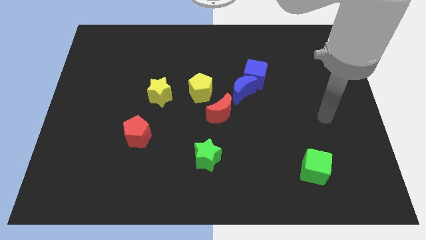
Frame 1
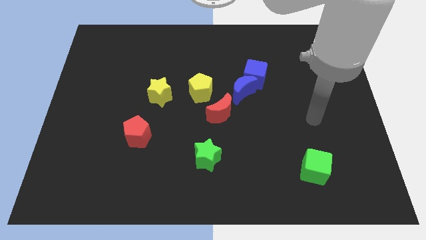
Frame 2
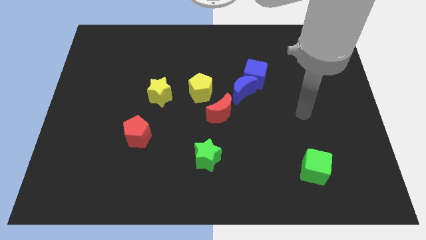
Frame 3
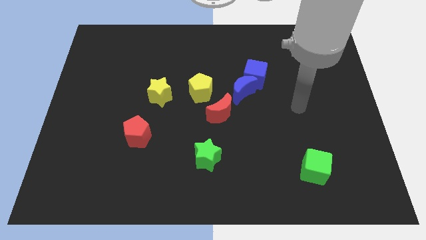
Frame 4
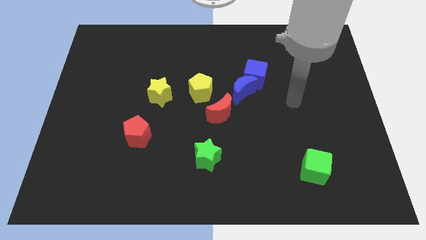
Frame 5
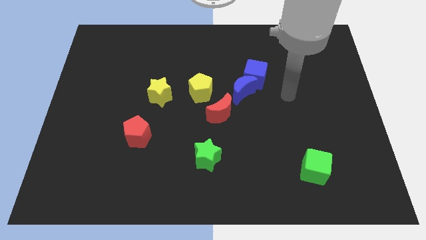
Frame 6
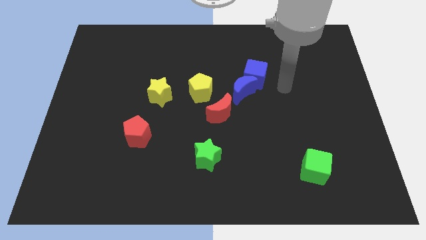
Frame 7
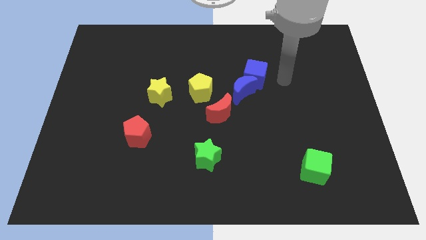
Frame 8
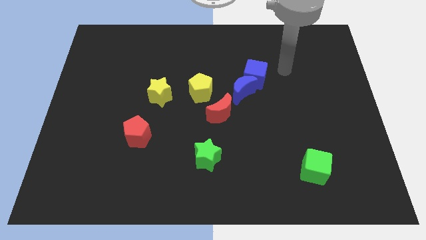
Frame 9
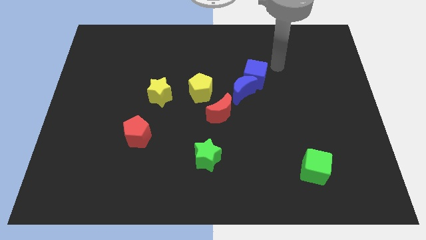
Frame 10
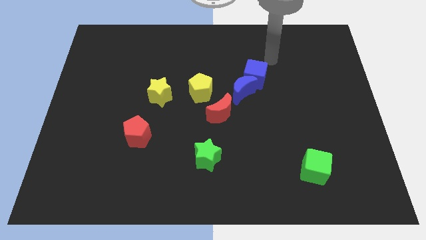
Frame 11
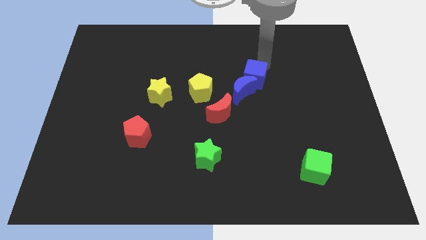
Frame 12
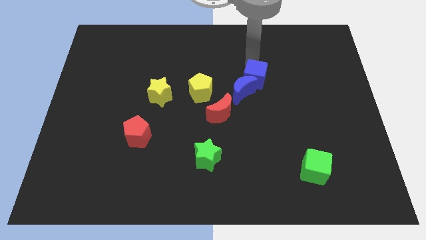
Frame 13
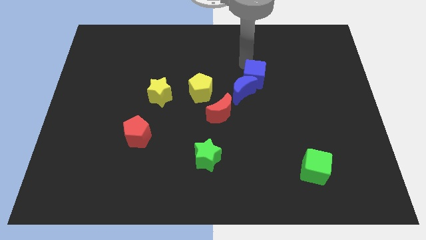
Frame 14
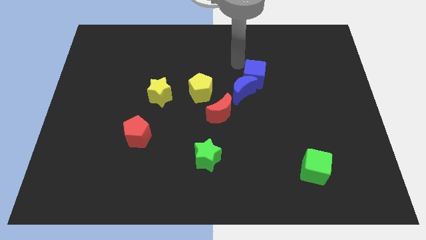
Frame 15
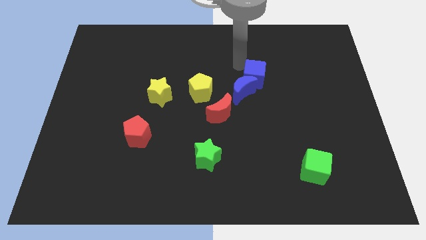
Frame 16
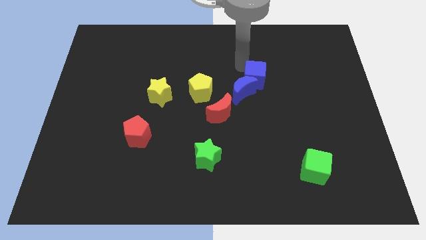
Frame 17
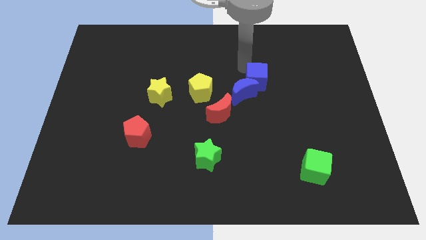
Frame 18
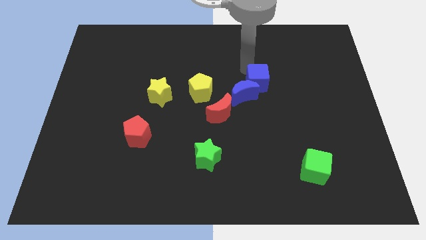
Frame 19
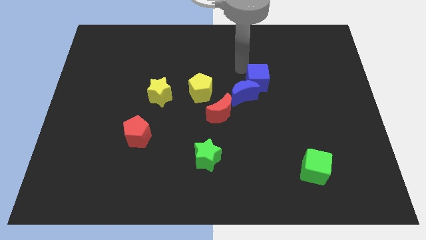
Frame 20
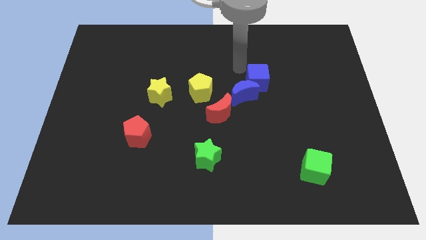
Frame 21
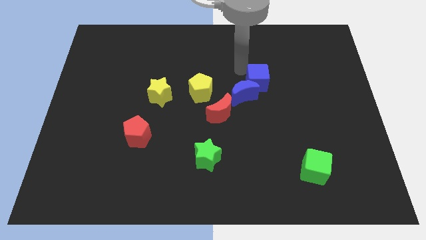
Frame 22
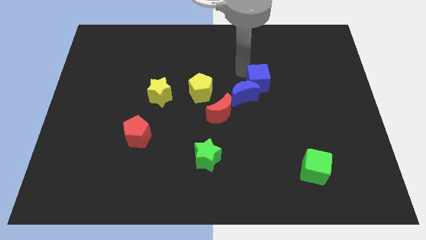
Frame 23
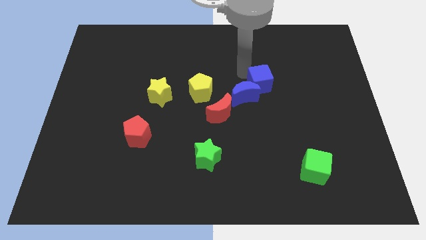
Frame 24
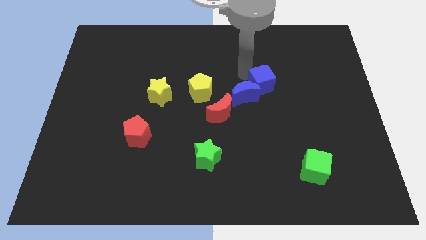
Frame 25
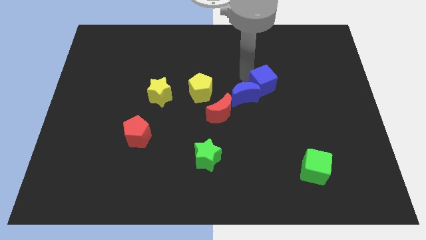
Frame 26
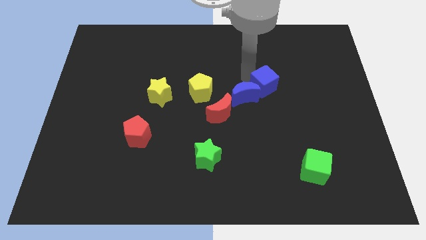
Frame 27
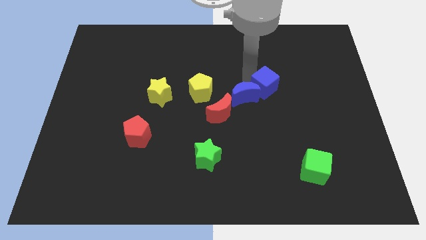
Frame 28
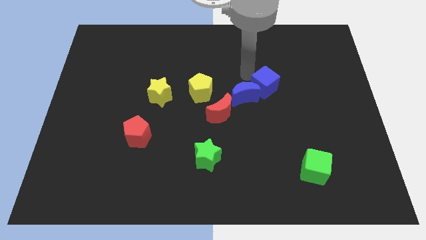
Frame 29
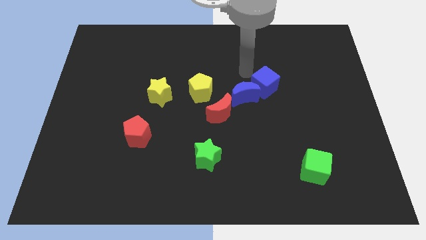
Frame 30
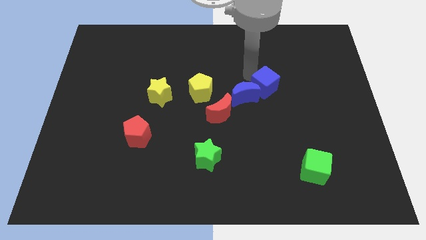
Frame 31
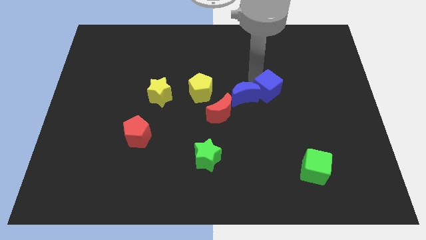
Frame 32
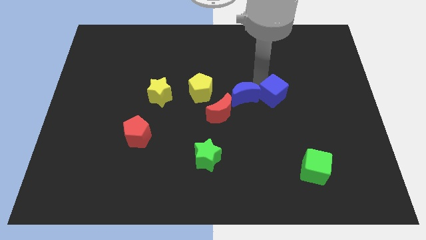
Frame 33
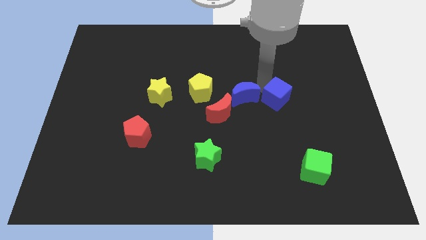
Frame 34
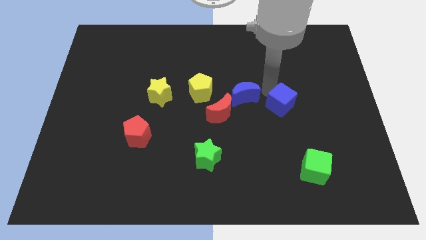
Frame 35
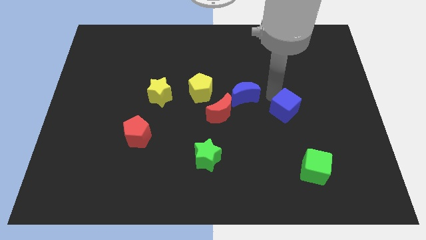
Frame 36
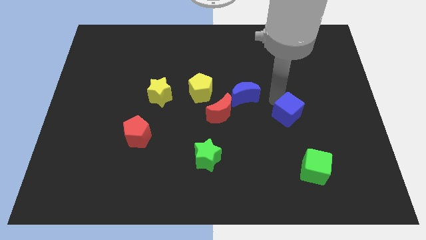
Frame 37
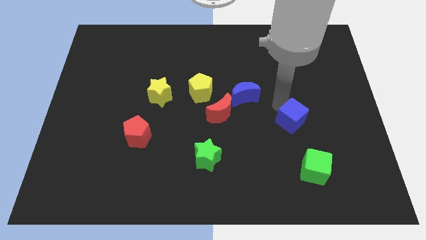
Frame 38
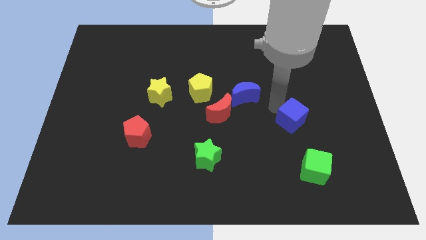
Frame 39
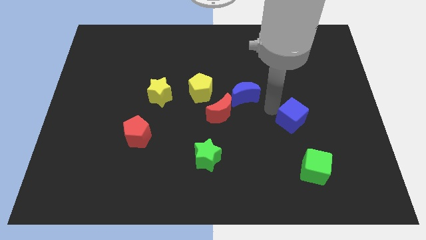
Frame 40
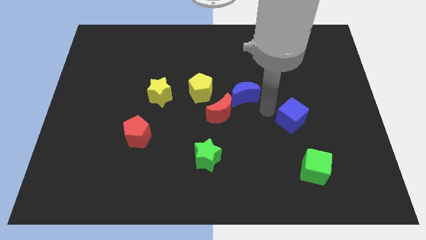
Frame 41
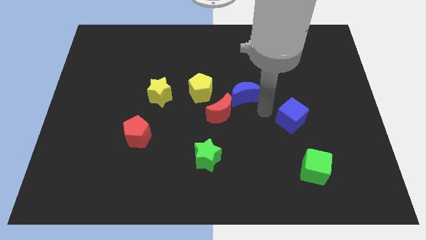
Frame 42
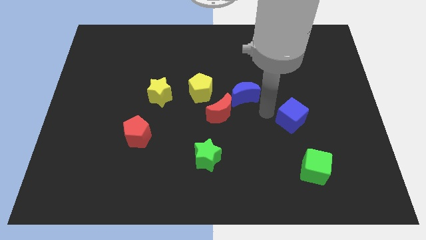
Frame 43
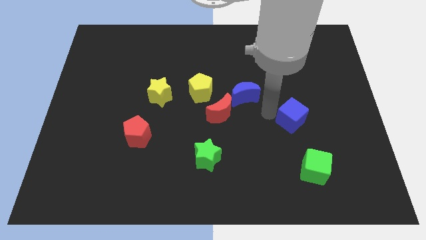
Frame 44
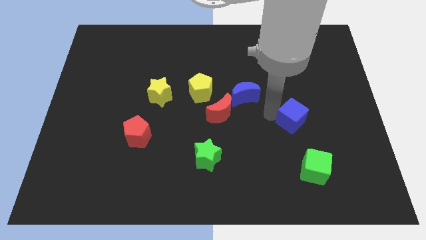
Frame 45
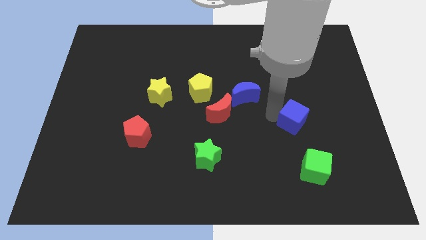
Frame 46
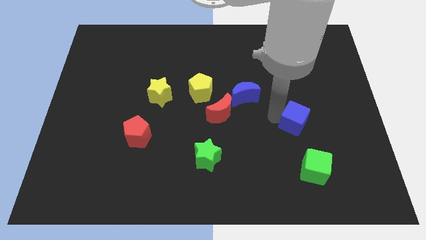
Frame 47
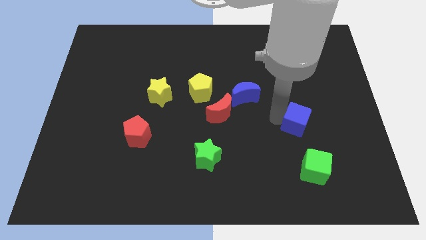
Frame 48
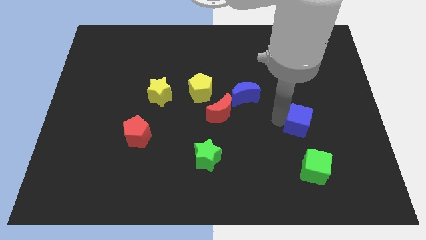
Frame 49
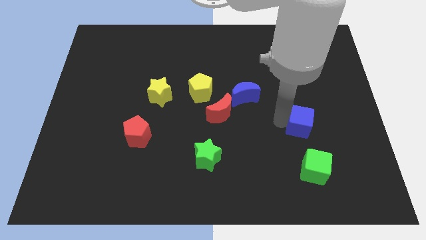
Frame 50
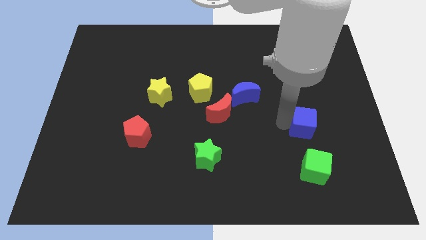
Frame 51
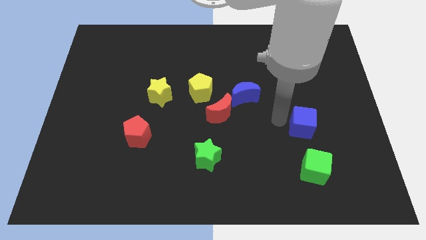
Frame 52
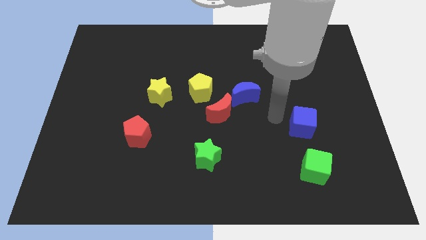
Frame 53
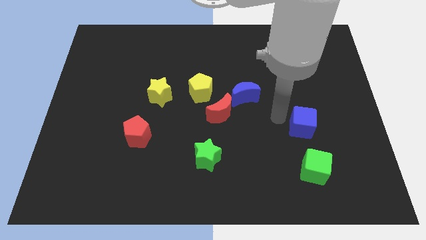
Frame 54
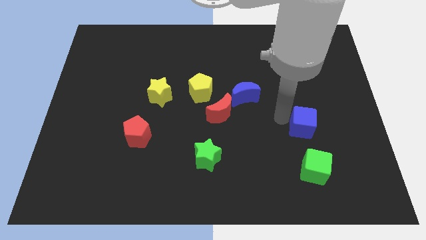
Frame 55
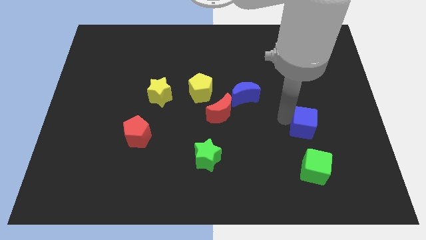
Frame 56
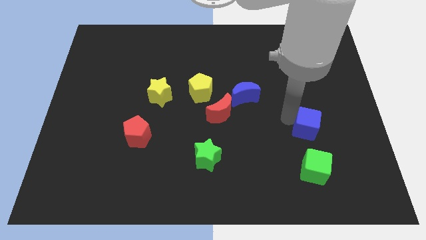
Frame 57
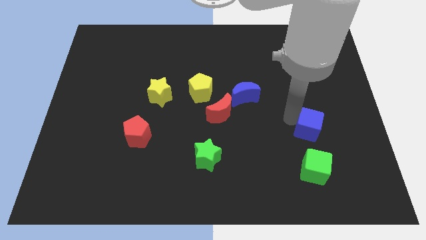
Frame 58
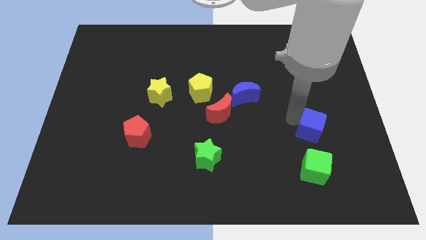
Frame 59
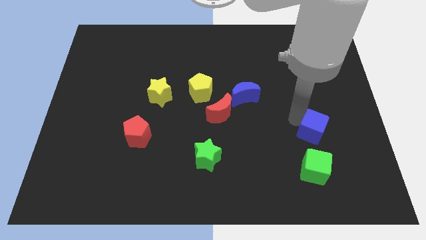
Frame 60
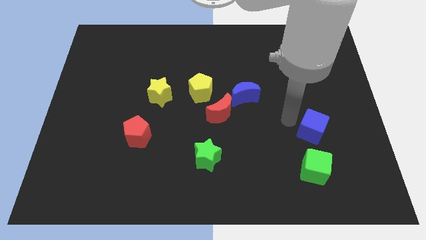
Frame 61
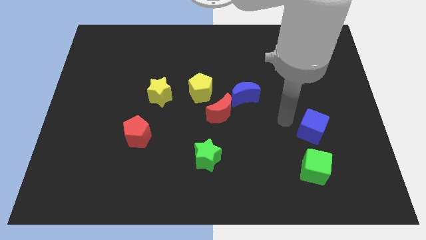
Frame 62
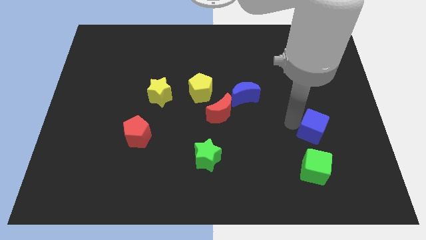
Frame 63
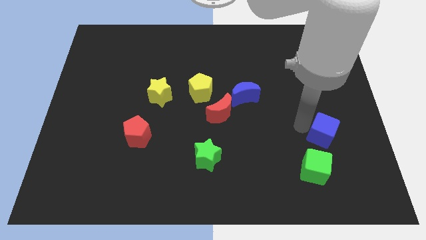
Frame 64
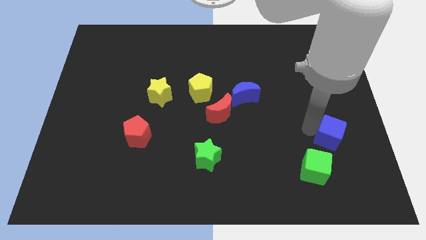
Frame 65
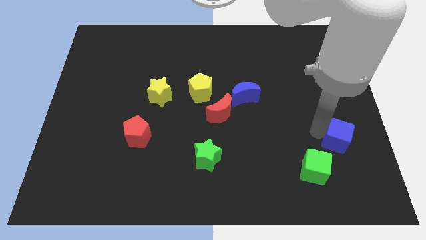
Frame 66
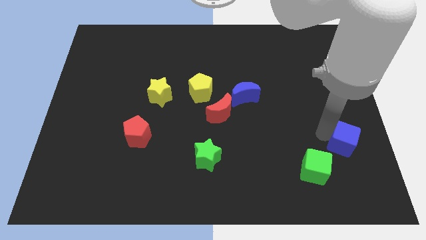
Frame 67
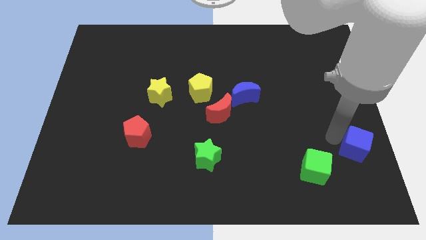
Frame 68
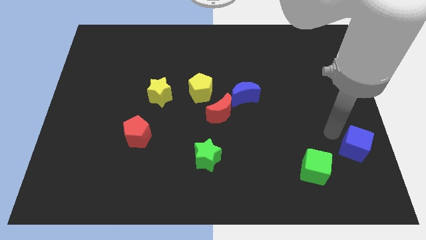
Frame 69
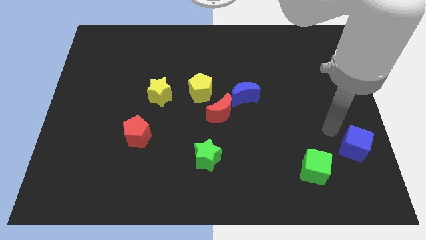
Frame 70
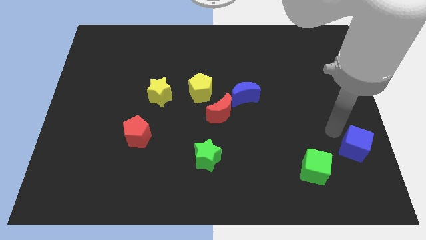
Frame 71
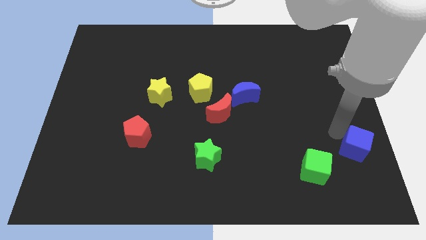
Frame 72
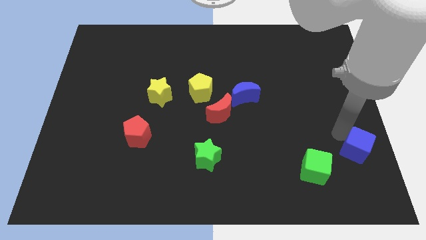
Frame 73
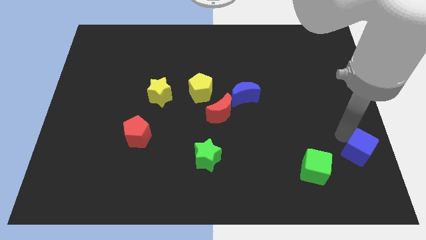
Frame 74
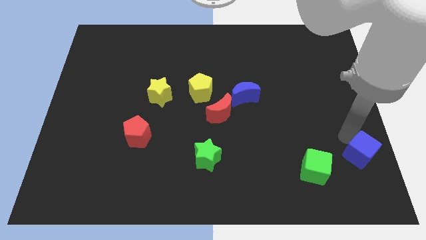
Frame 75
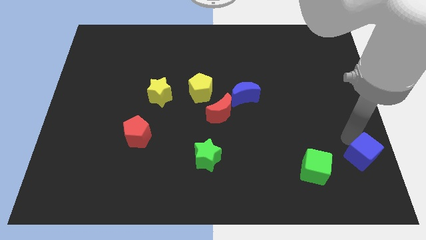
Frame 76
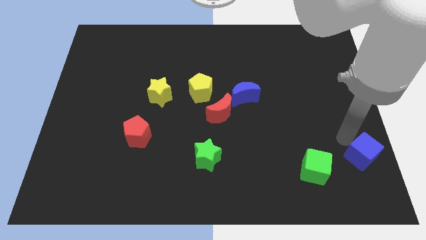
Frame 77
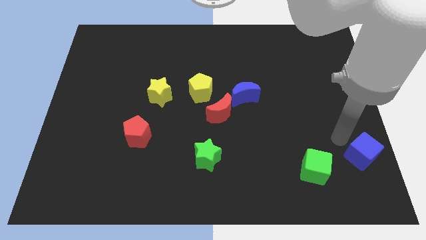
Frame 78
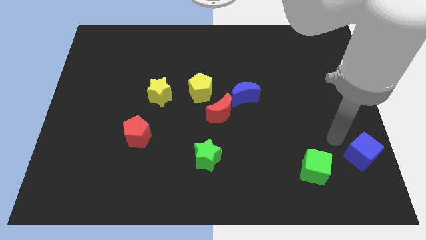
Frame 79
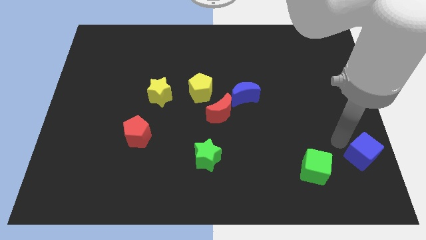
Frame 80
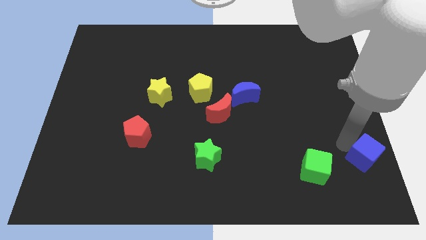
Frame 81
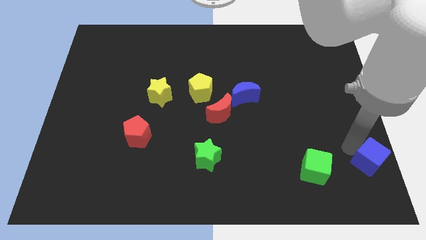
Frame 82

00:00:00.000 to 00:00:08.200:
move the blue cube to the lower right corner
